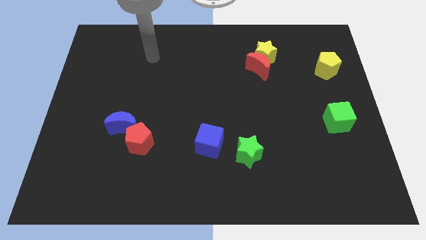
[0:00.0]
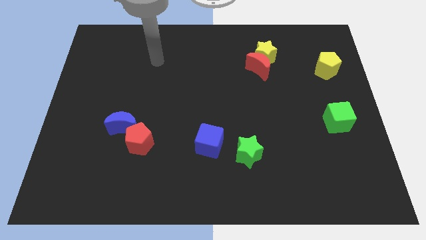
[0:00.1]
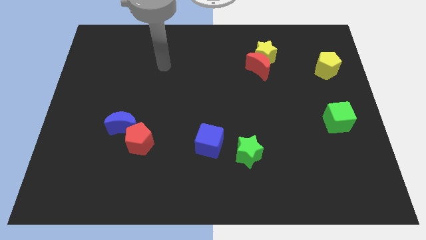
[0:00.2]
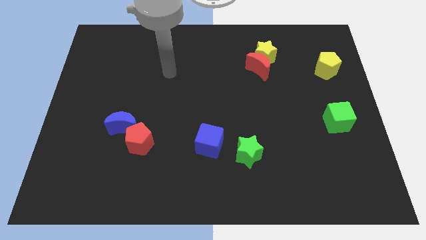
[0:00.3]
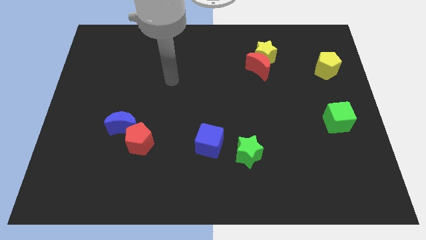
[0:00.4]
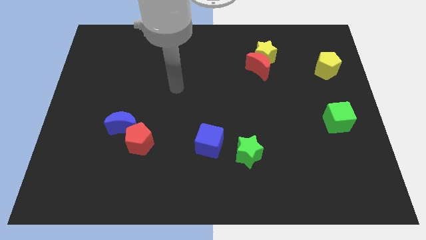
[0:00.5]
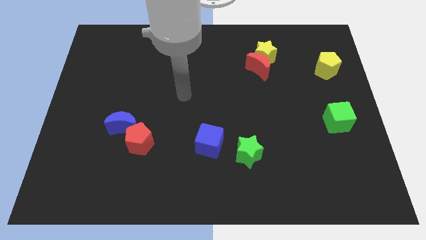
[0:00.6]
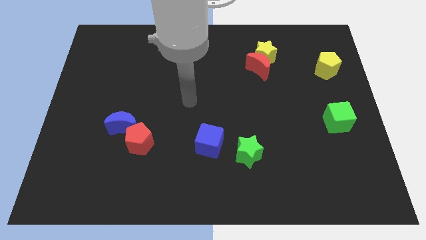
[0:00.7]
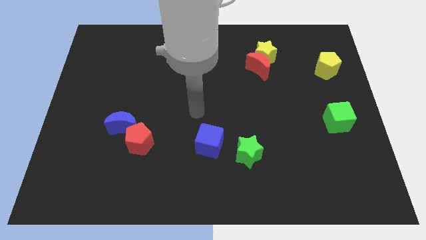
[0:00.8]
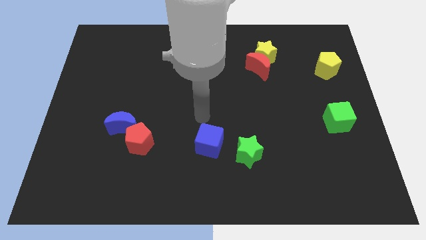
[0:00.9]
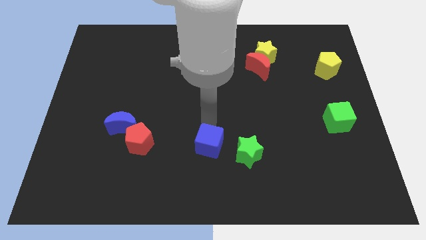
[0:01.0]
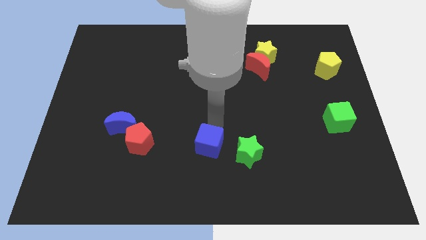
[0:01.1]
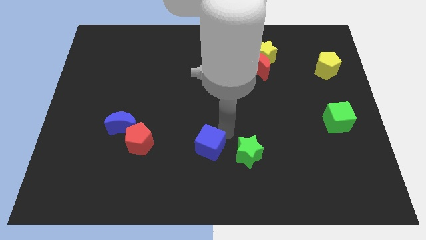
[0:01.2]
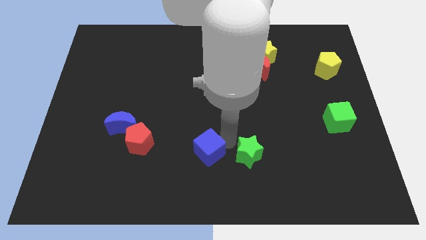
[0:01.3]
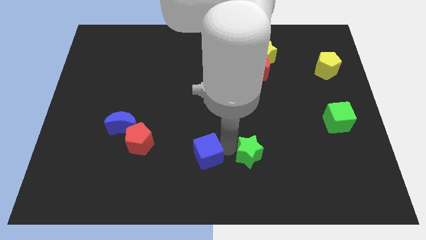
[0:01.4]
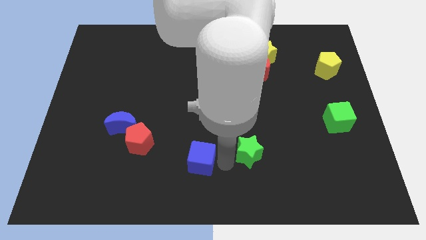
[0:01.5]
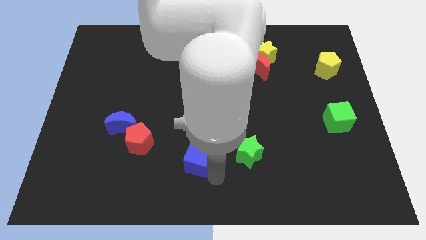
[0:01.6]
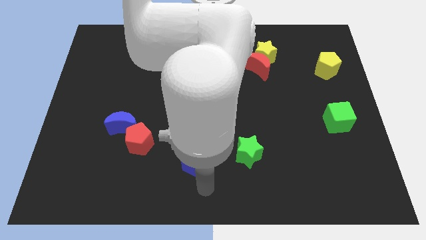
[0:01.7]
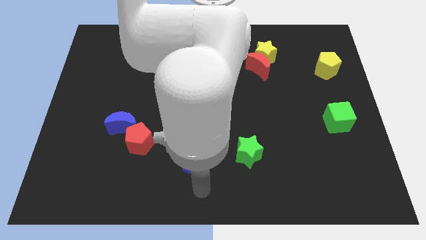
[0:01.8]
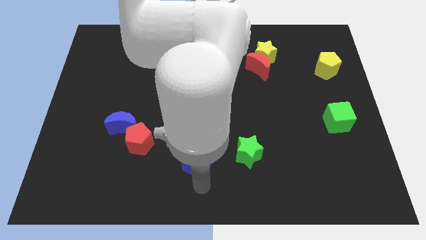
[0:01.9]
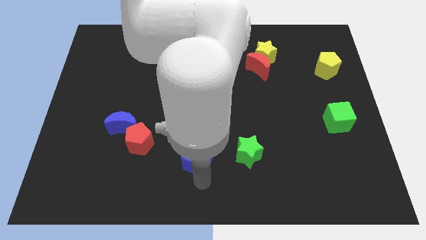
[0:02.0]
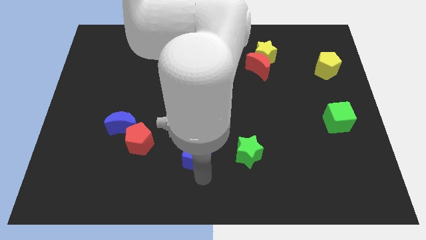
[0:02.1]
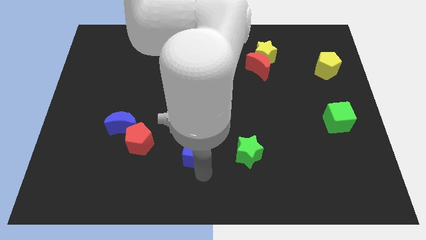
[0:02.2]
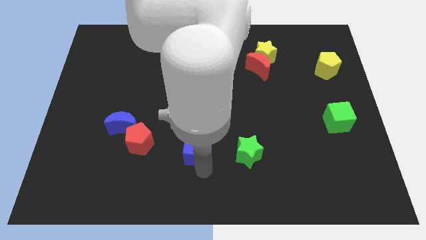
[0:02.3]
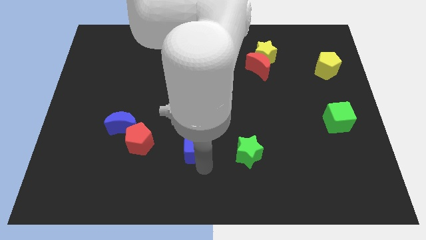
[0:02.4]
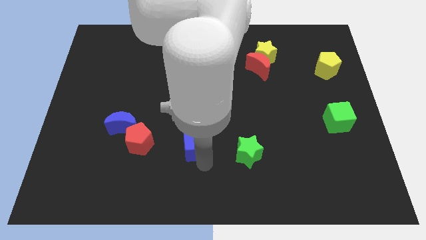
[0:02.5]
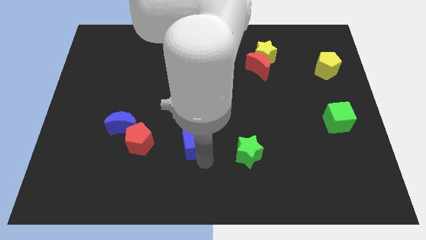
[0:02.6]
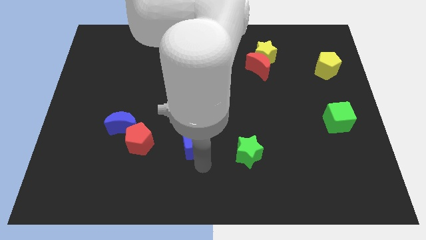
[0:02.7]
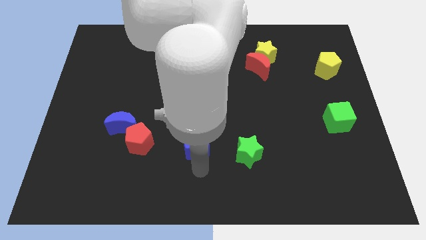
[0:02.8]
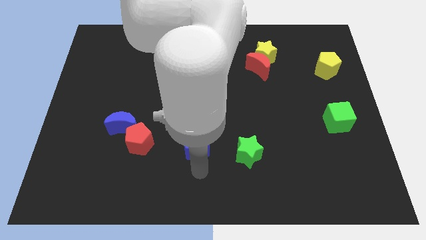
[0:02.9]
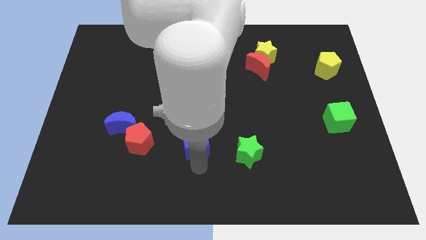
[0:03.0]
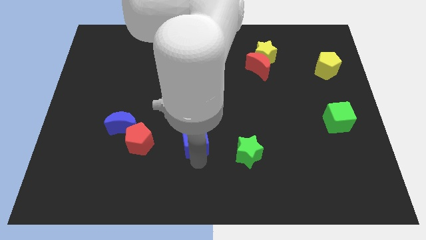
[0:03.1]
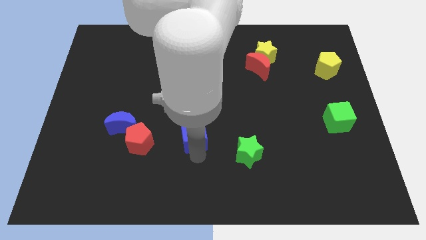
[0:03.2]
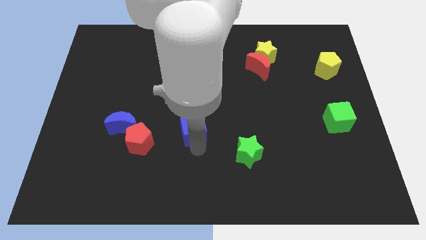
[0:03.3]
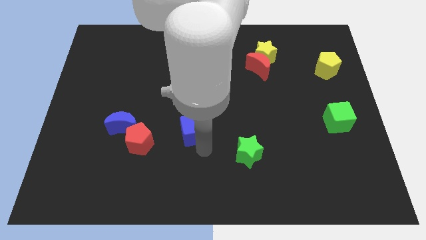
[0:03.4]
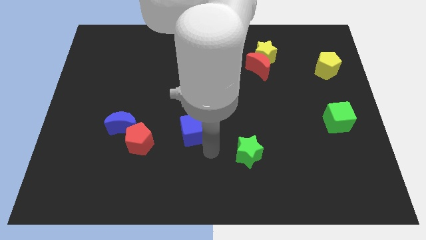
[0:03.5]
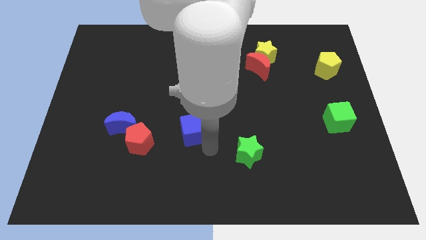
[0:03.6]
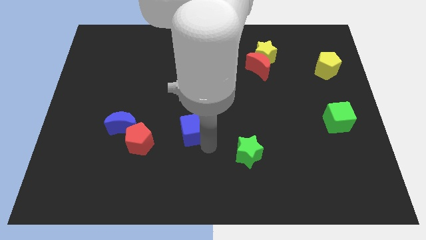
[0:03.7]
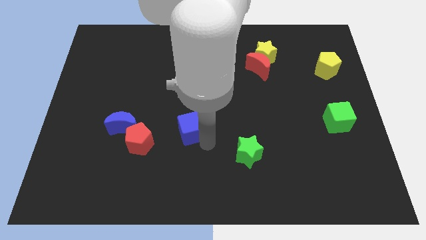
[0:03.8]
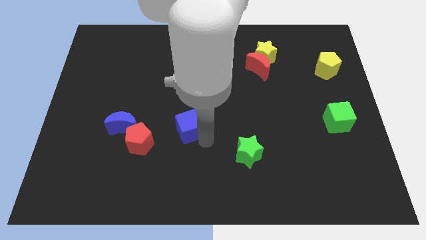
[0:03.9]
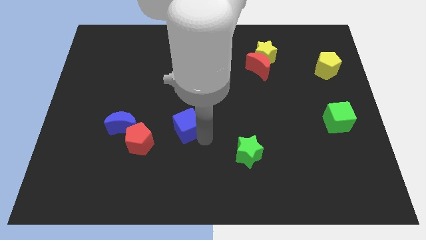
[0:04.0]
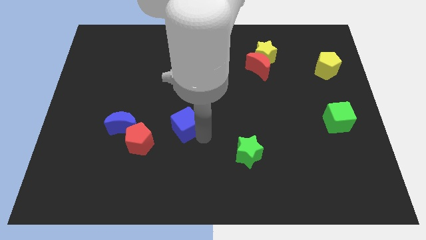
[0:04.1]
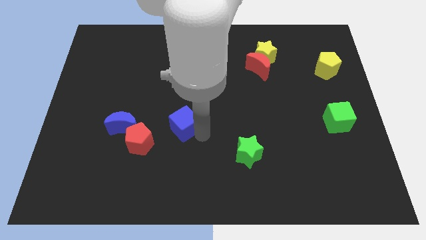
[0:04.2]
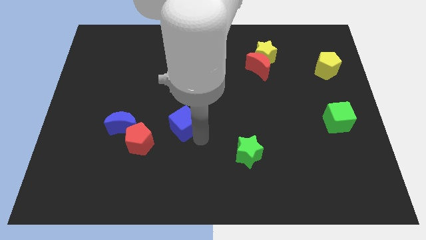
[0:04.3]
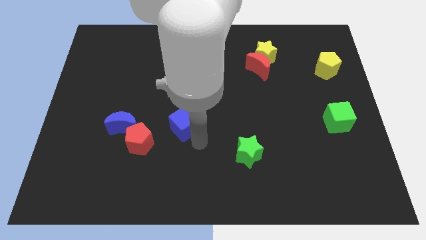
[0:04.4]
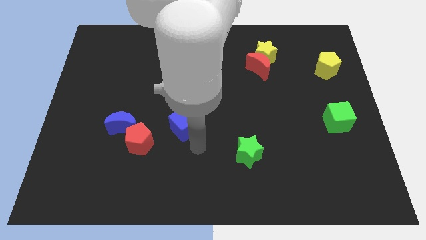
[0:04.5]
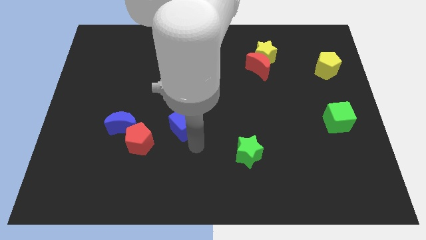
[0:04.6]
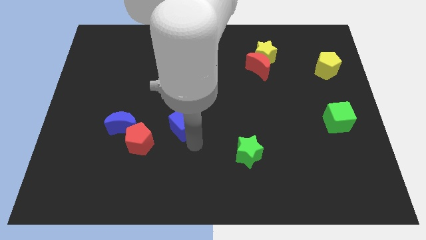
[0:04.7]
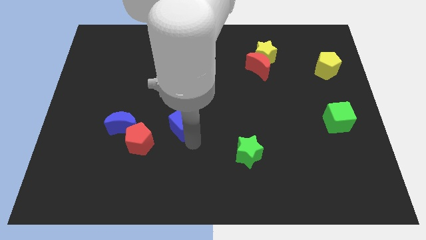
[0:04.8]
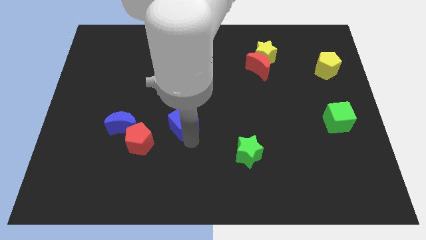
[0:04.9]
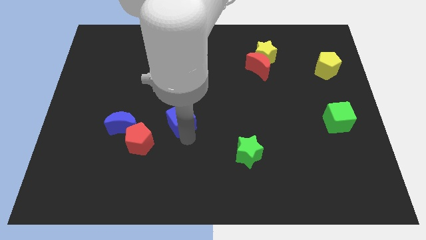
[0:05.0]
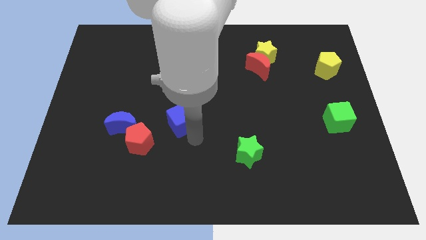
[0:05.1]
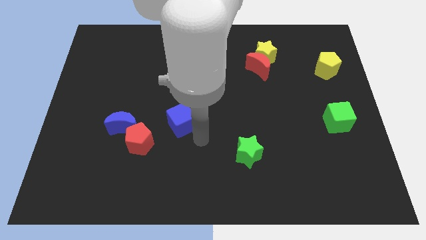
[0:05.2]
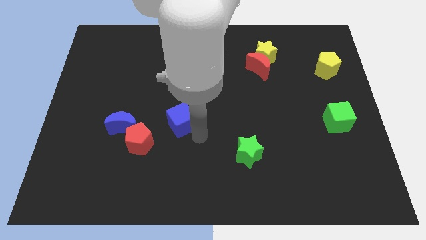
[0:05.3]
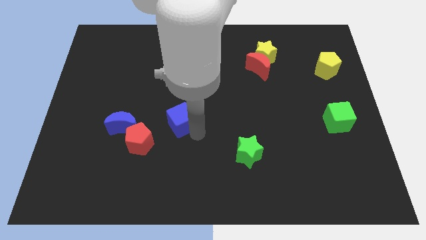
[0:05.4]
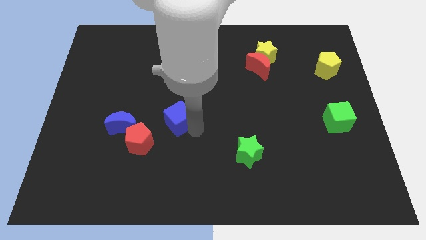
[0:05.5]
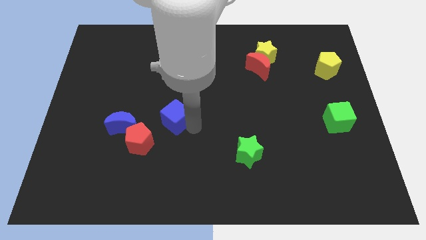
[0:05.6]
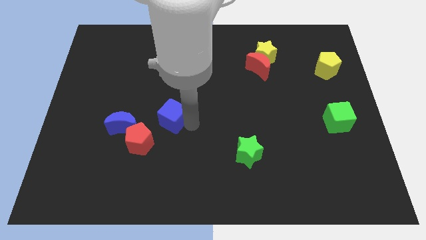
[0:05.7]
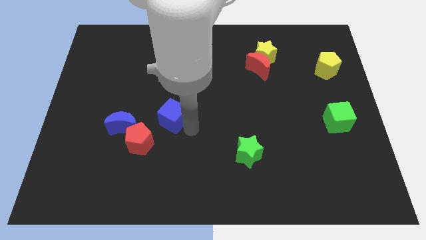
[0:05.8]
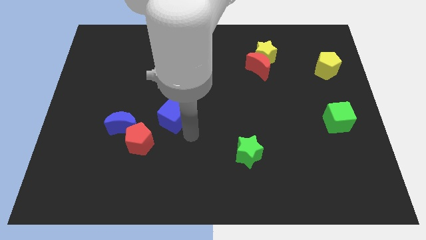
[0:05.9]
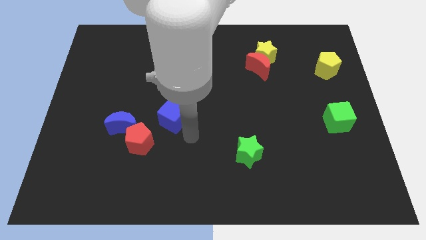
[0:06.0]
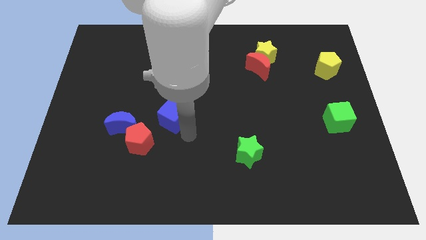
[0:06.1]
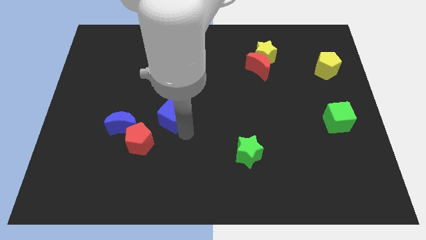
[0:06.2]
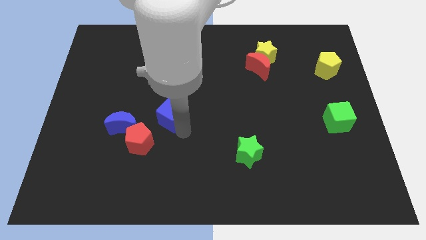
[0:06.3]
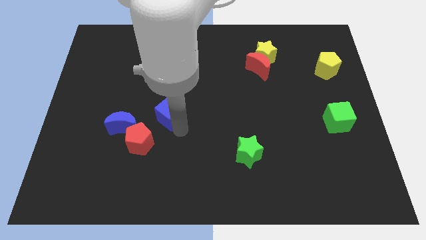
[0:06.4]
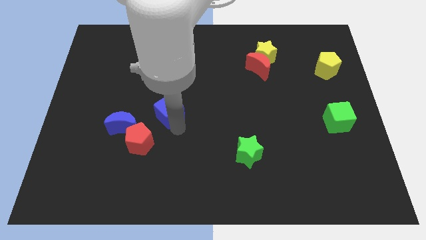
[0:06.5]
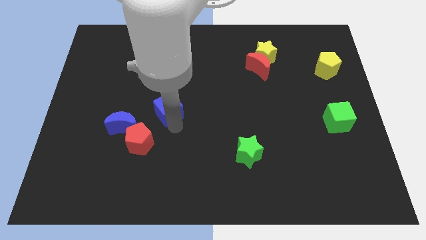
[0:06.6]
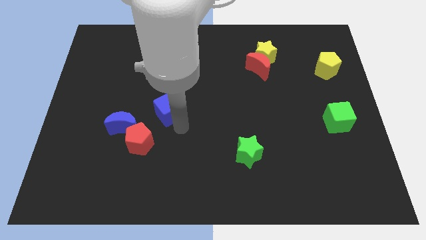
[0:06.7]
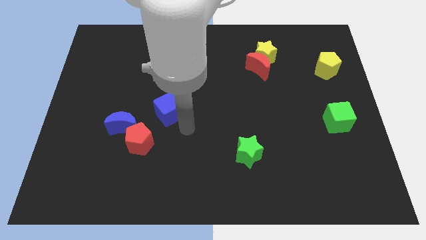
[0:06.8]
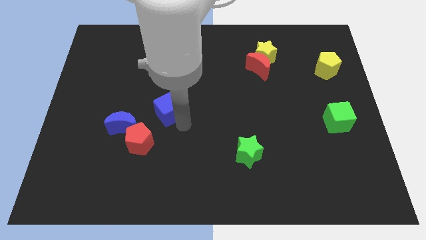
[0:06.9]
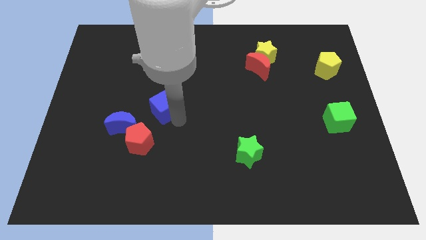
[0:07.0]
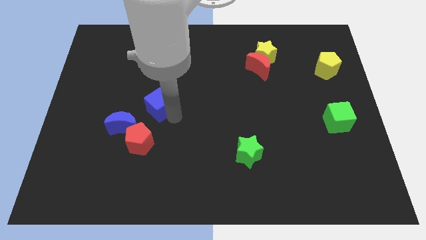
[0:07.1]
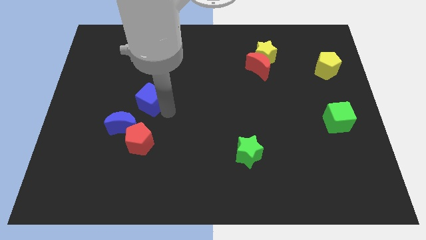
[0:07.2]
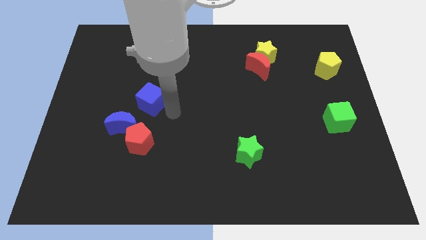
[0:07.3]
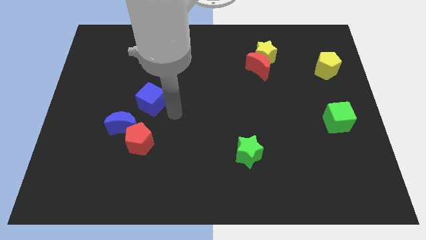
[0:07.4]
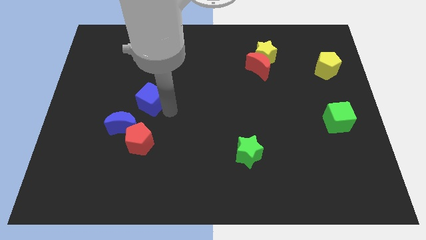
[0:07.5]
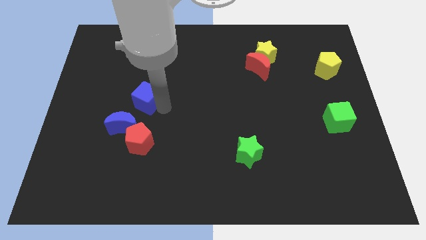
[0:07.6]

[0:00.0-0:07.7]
push the blue cube above the blue moon

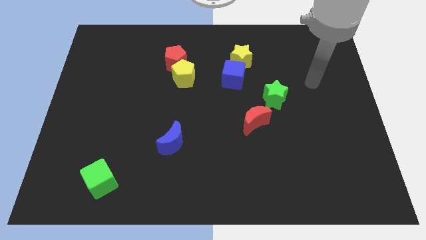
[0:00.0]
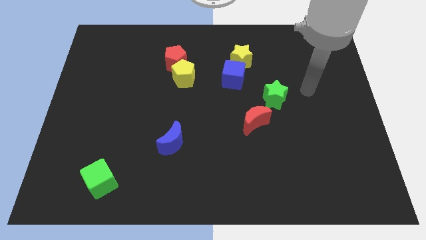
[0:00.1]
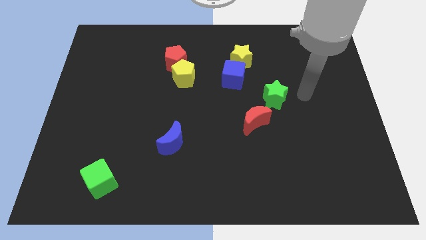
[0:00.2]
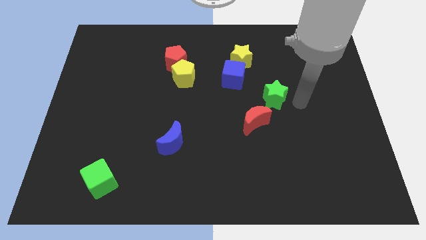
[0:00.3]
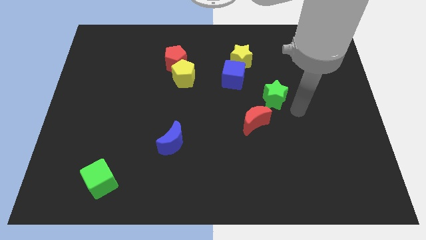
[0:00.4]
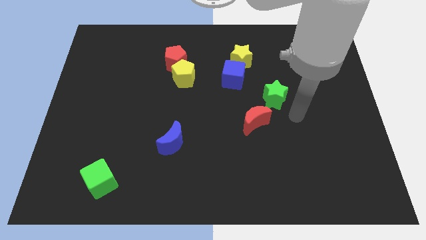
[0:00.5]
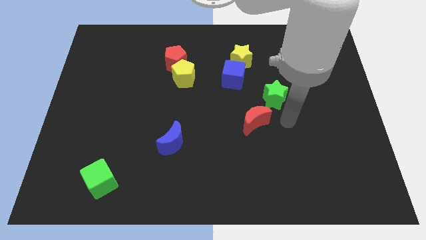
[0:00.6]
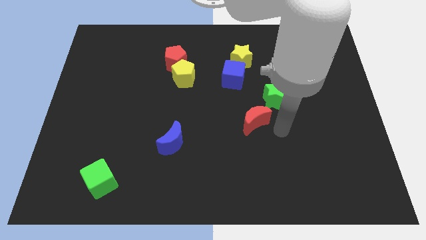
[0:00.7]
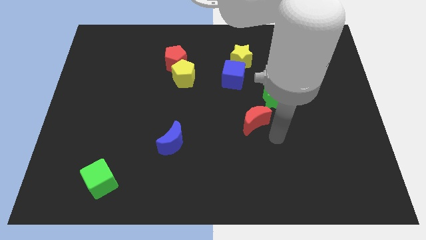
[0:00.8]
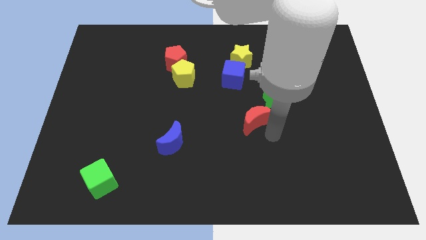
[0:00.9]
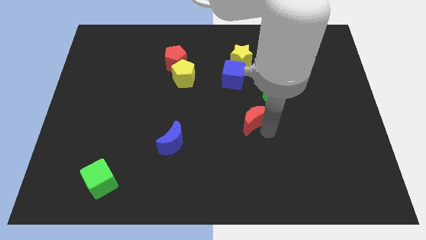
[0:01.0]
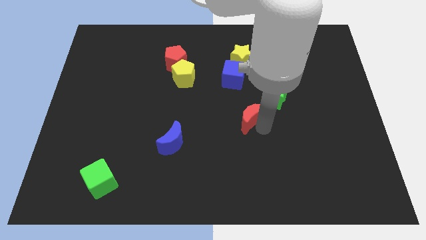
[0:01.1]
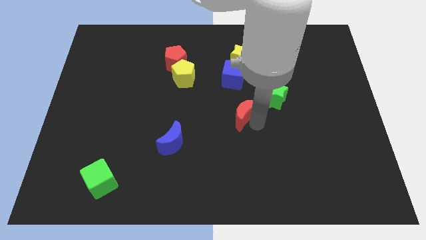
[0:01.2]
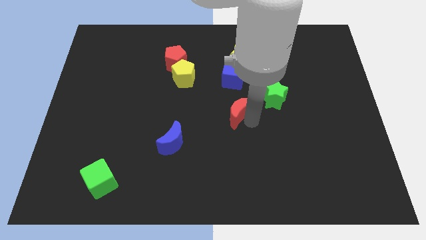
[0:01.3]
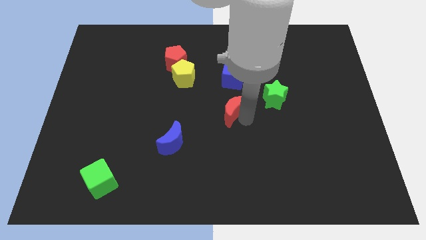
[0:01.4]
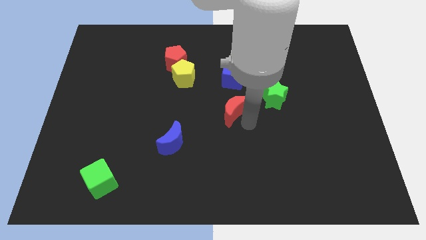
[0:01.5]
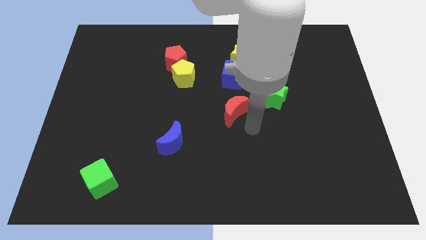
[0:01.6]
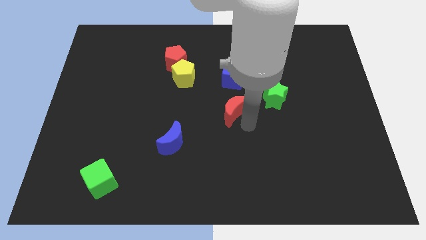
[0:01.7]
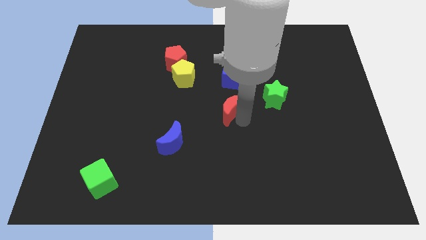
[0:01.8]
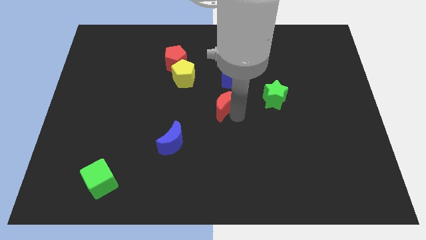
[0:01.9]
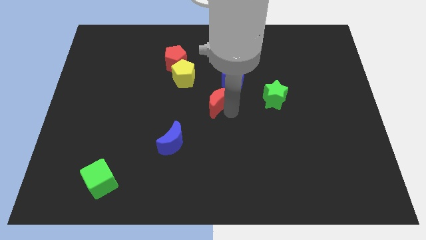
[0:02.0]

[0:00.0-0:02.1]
slide the red moon to the bottom left of the blue cube
